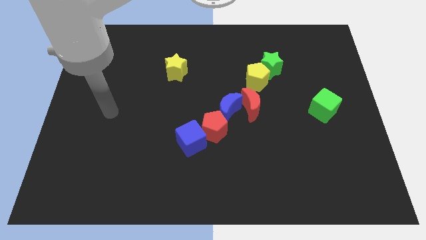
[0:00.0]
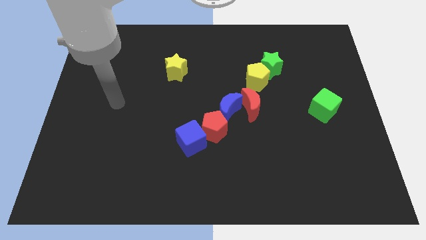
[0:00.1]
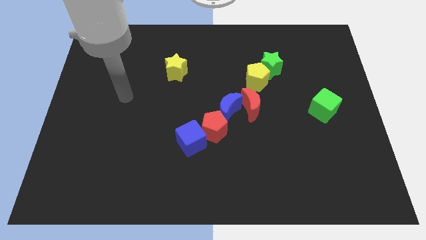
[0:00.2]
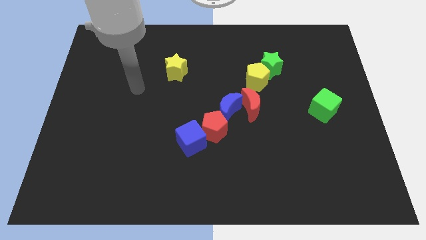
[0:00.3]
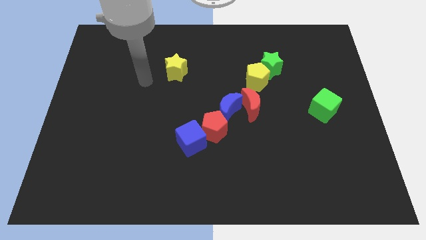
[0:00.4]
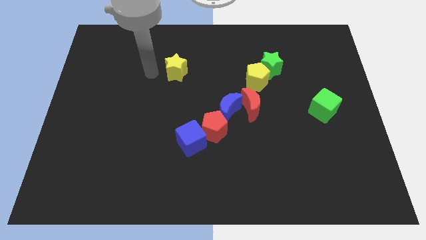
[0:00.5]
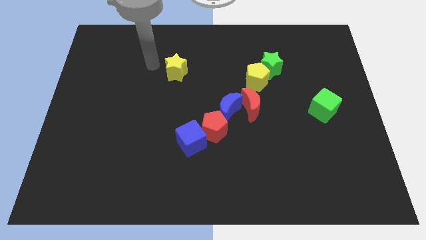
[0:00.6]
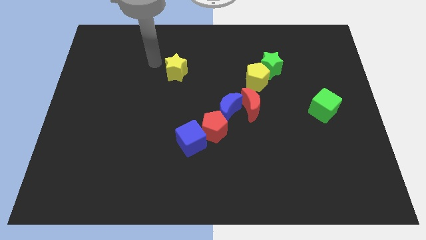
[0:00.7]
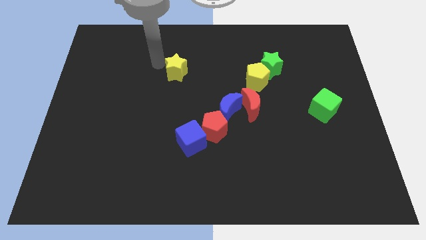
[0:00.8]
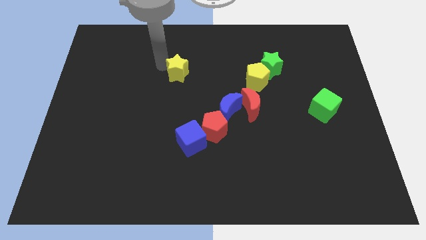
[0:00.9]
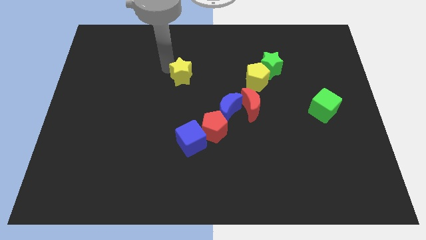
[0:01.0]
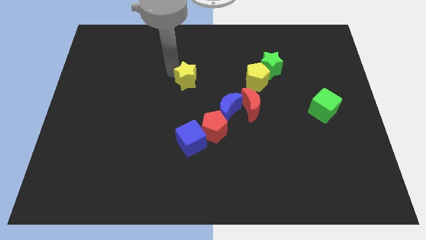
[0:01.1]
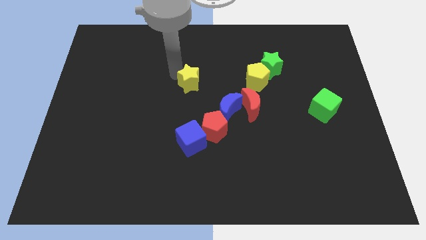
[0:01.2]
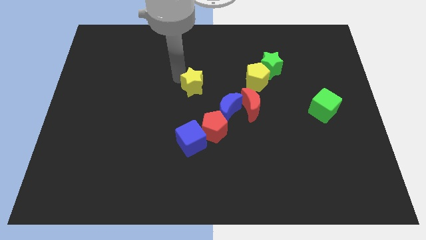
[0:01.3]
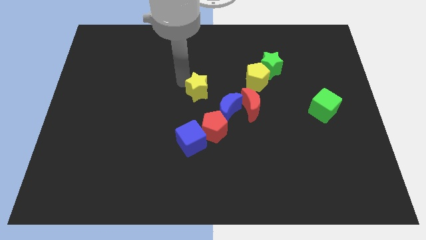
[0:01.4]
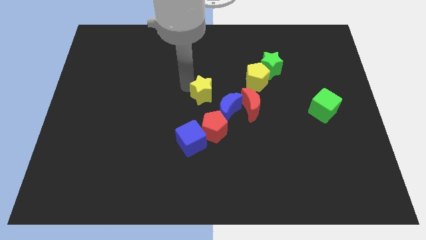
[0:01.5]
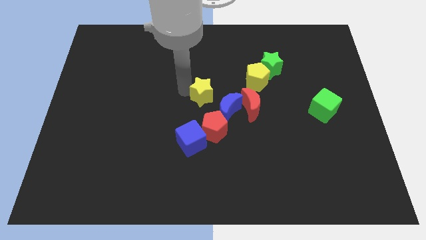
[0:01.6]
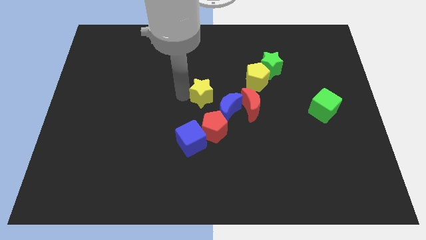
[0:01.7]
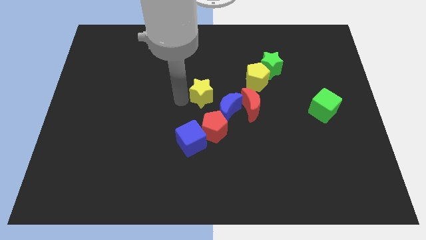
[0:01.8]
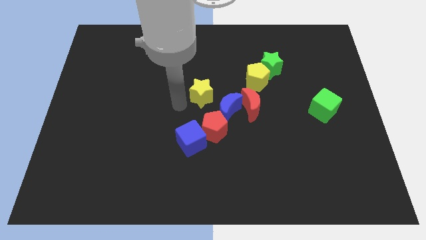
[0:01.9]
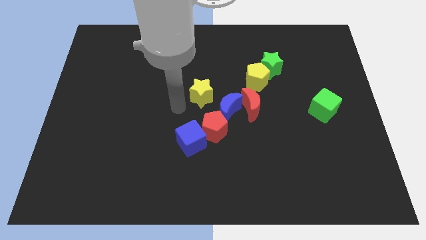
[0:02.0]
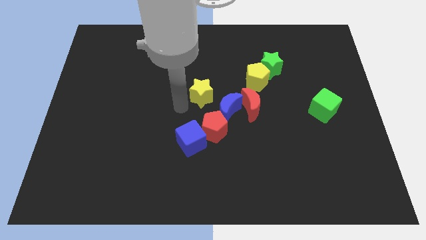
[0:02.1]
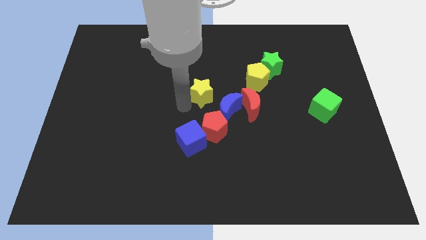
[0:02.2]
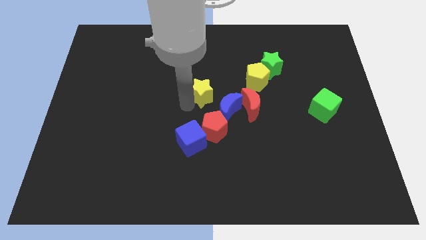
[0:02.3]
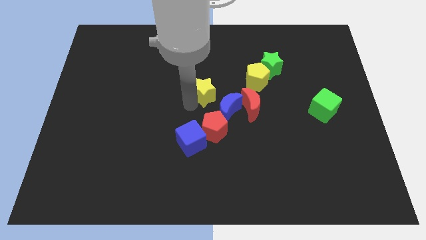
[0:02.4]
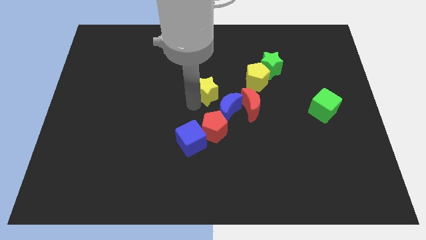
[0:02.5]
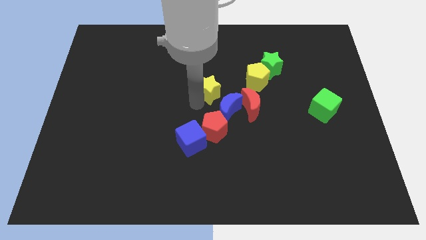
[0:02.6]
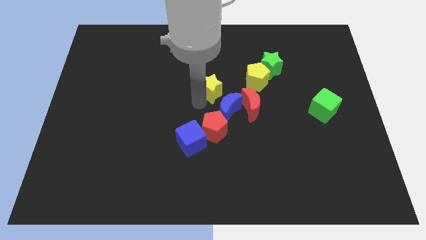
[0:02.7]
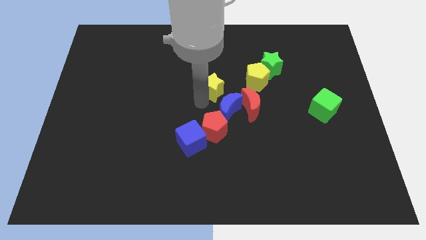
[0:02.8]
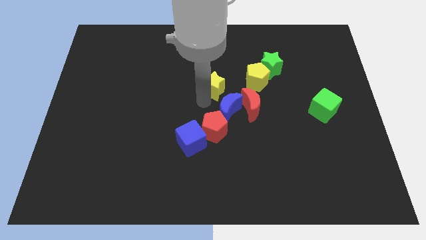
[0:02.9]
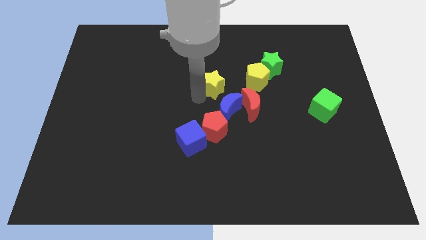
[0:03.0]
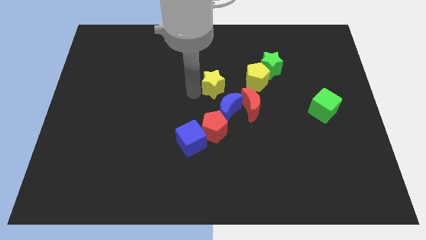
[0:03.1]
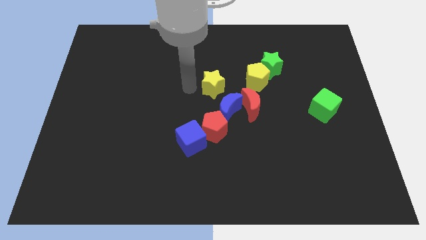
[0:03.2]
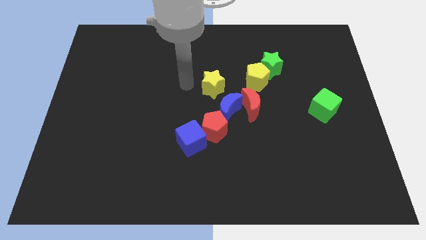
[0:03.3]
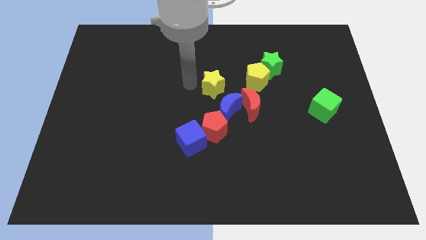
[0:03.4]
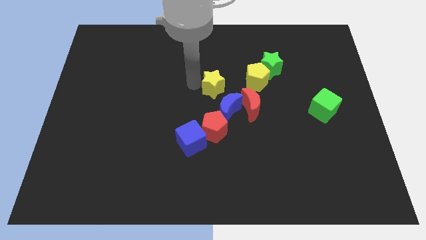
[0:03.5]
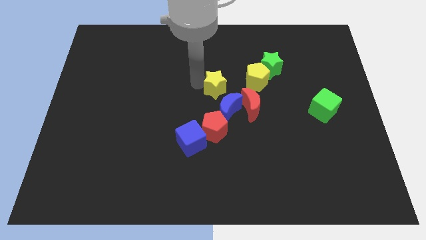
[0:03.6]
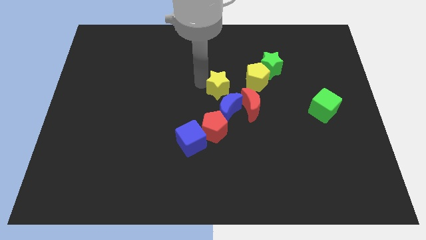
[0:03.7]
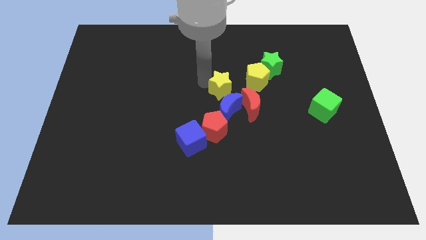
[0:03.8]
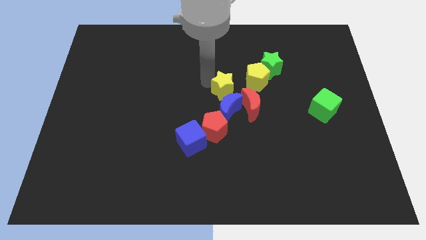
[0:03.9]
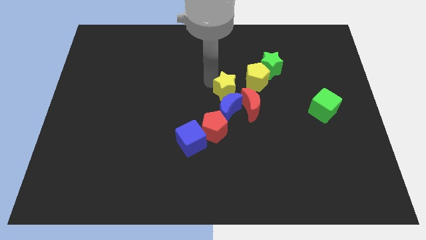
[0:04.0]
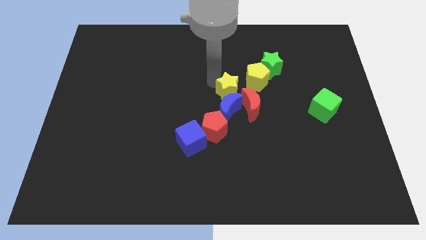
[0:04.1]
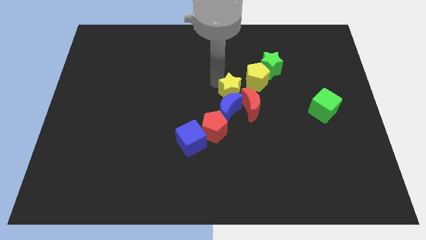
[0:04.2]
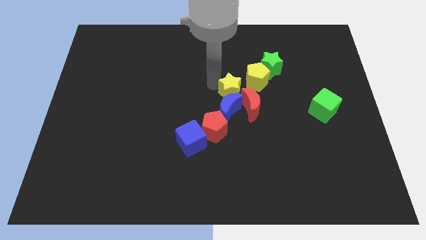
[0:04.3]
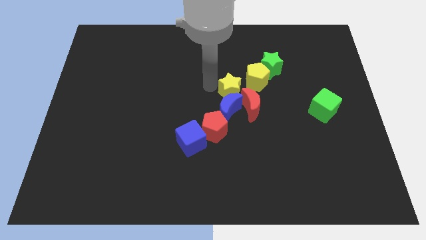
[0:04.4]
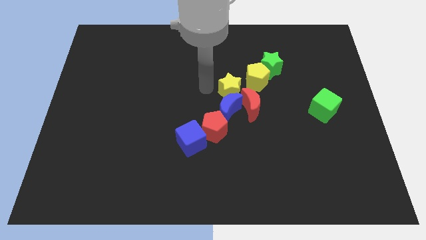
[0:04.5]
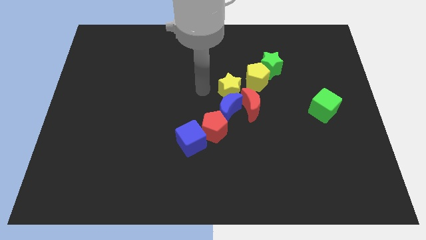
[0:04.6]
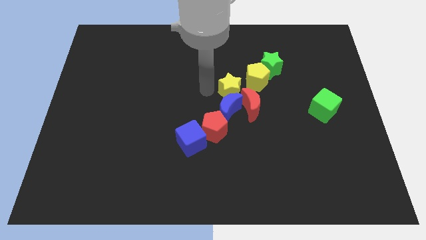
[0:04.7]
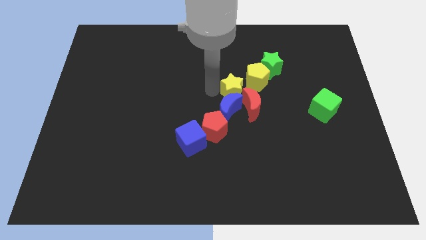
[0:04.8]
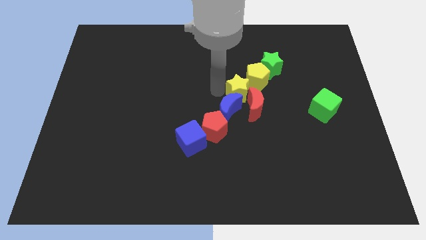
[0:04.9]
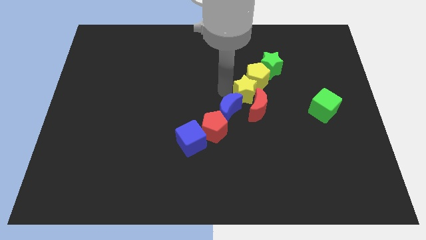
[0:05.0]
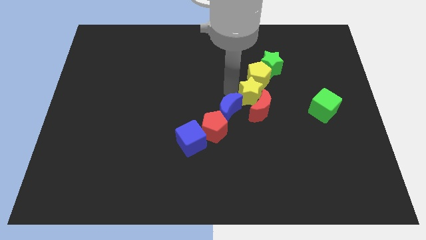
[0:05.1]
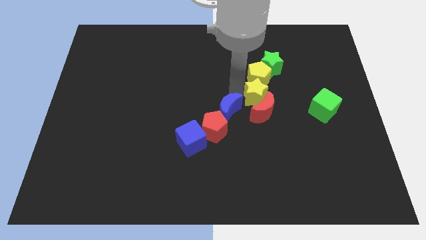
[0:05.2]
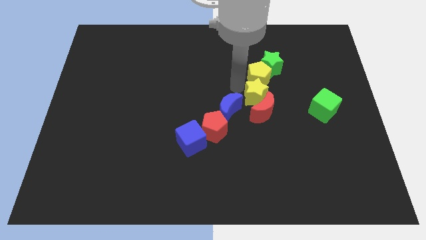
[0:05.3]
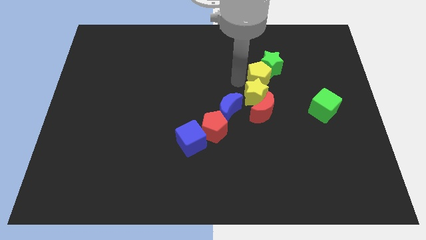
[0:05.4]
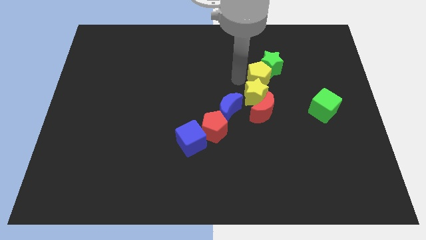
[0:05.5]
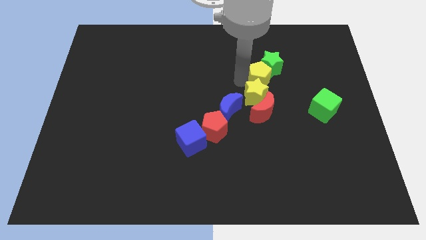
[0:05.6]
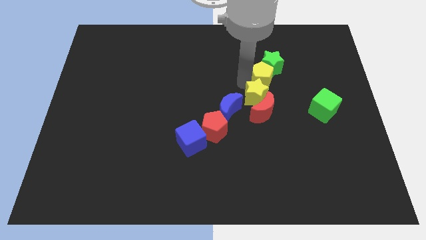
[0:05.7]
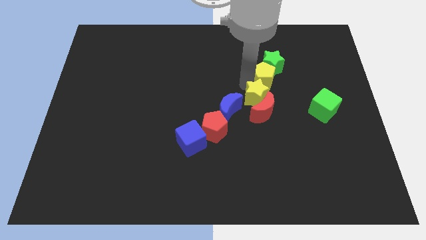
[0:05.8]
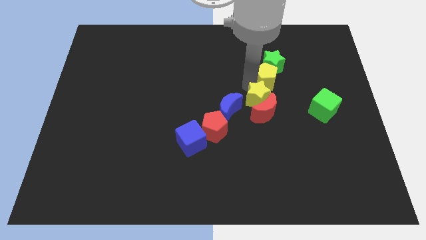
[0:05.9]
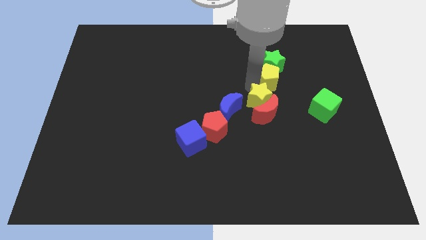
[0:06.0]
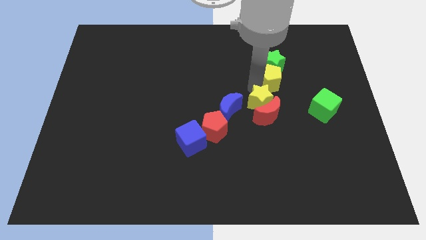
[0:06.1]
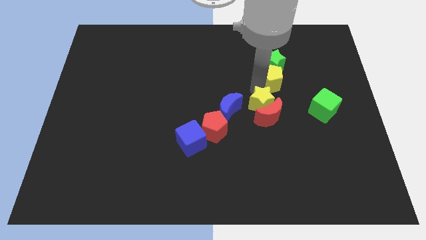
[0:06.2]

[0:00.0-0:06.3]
move the yellow star down and to the right diagonally

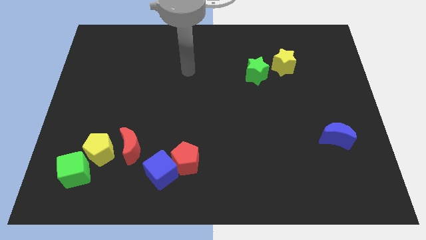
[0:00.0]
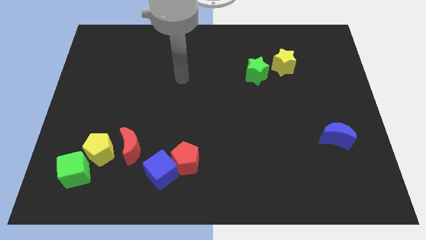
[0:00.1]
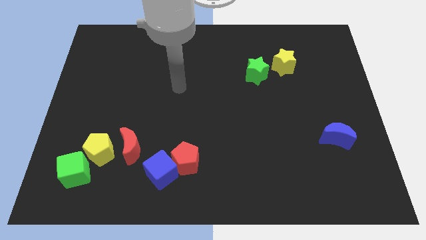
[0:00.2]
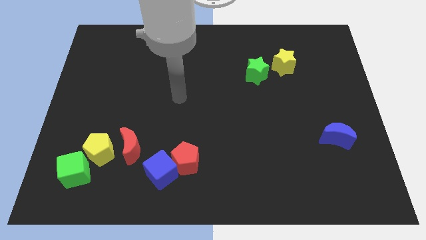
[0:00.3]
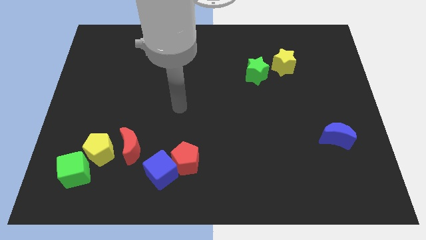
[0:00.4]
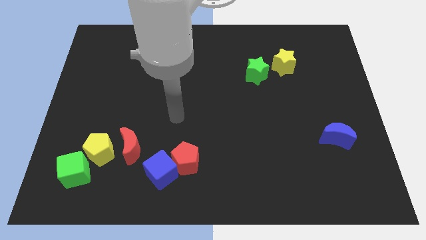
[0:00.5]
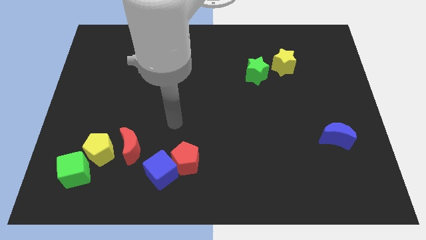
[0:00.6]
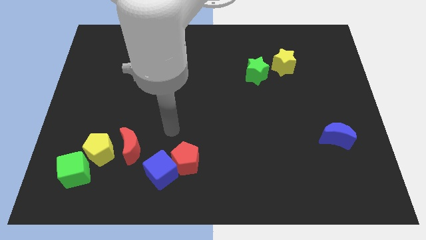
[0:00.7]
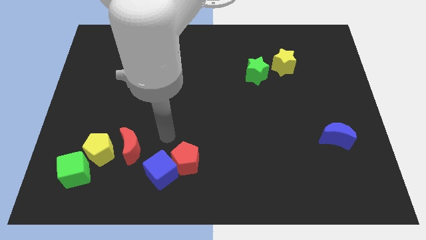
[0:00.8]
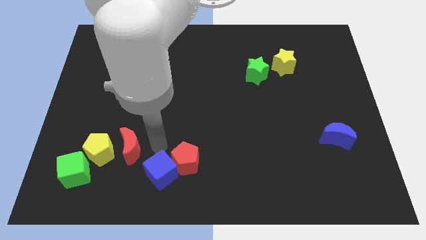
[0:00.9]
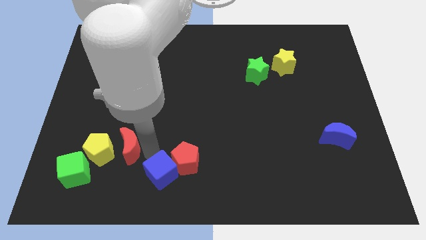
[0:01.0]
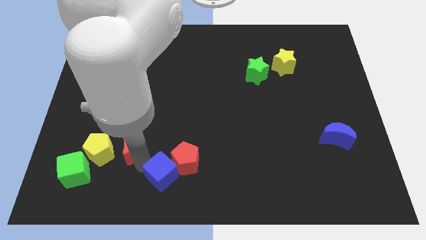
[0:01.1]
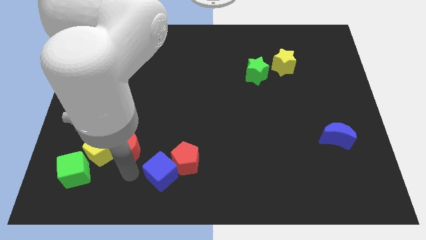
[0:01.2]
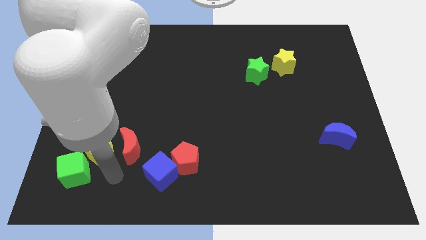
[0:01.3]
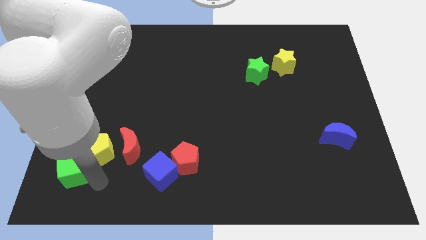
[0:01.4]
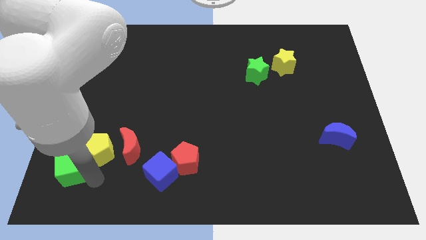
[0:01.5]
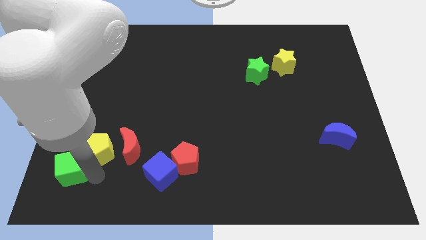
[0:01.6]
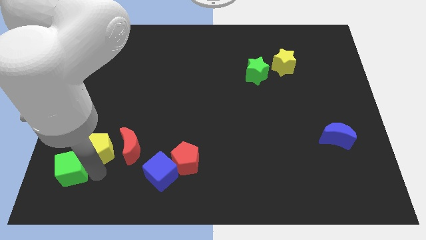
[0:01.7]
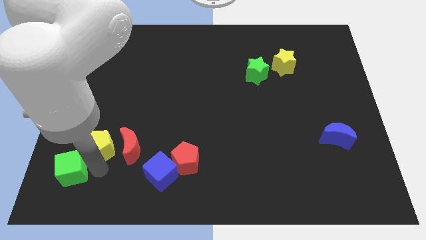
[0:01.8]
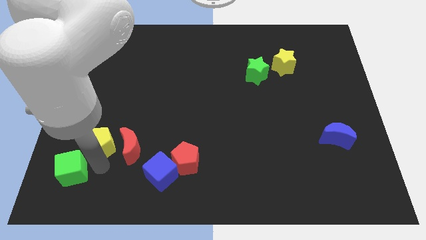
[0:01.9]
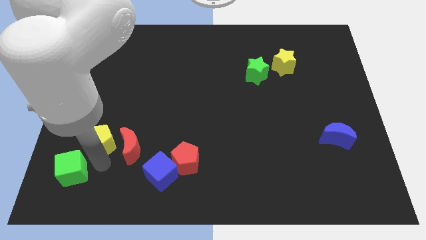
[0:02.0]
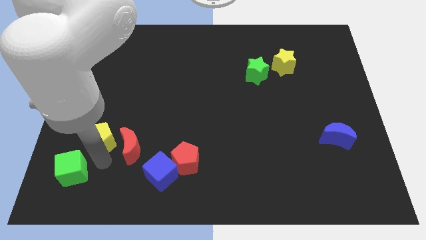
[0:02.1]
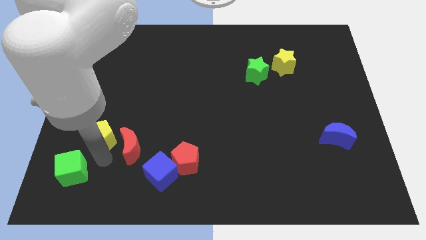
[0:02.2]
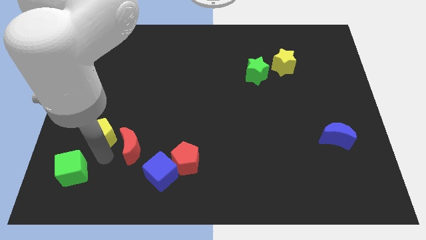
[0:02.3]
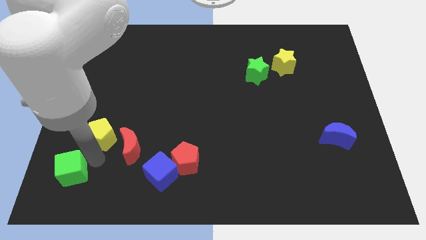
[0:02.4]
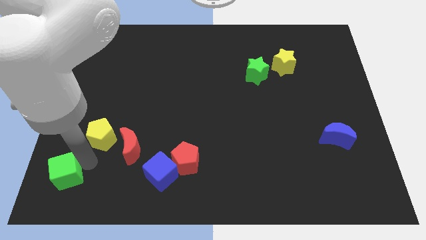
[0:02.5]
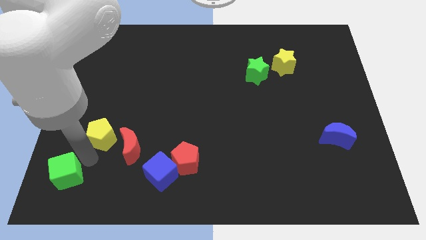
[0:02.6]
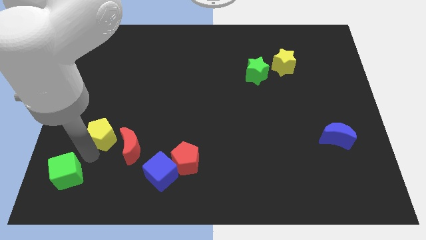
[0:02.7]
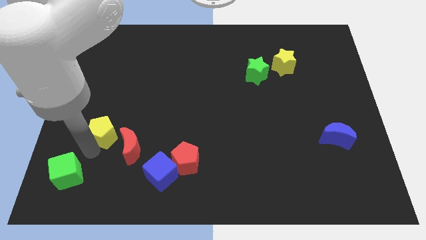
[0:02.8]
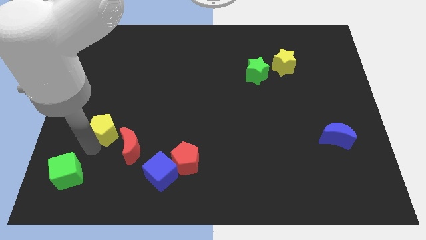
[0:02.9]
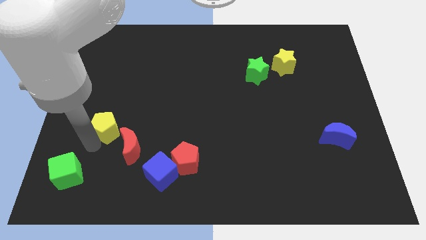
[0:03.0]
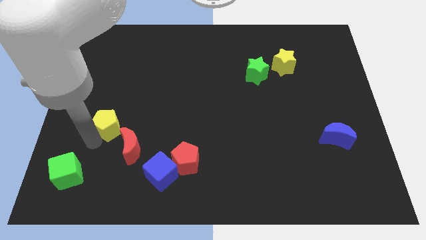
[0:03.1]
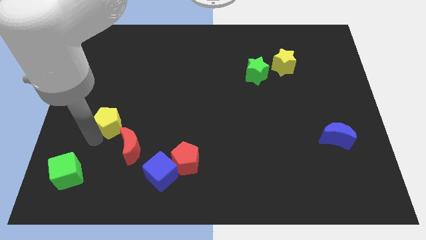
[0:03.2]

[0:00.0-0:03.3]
move the yellow pentagon somewhat up
